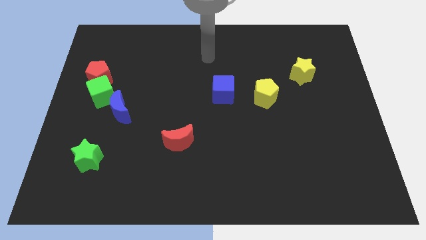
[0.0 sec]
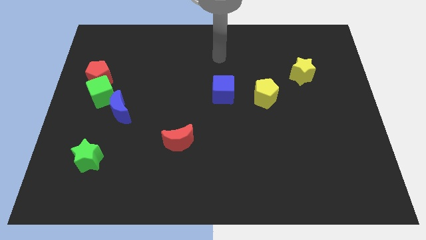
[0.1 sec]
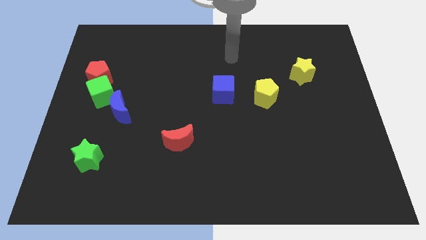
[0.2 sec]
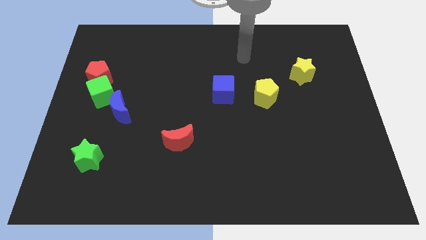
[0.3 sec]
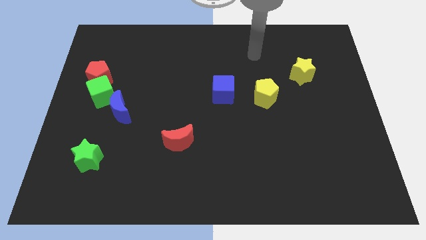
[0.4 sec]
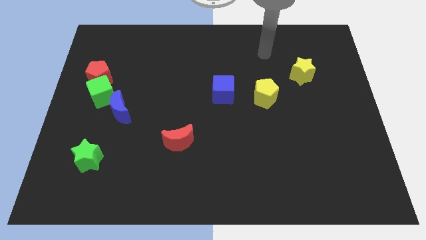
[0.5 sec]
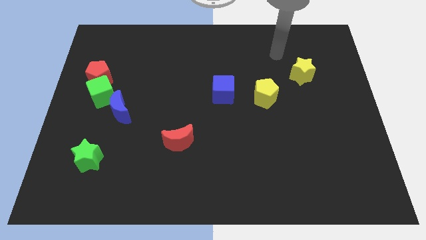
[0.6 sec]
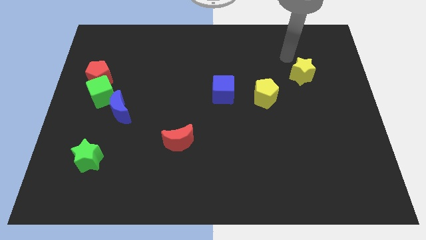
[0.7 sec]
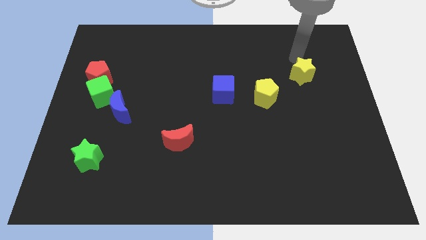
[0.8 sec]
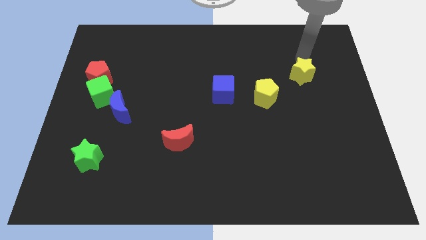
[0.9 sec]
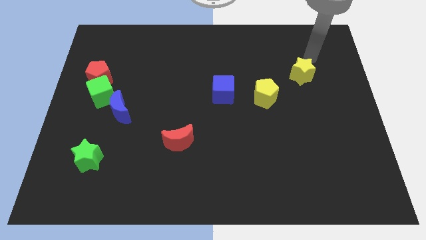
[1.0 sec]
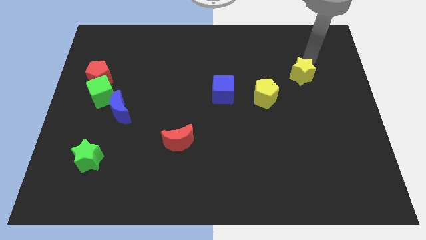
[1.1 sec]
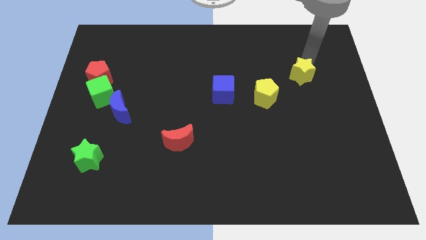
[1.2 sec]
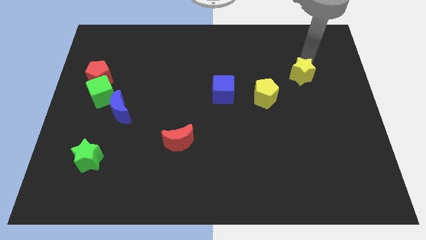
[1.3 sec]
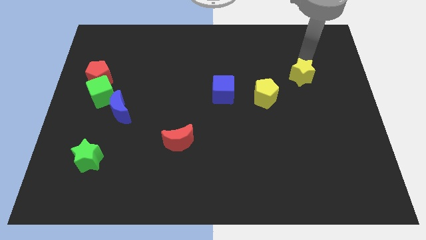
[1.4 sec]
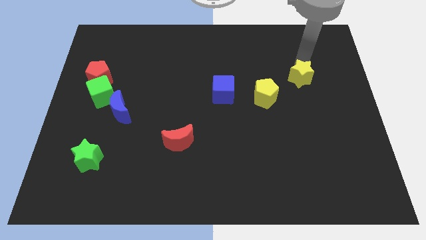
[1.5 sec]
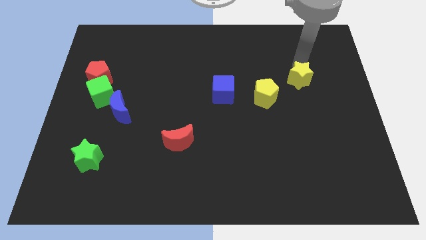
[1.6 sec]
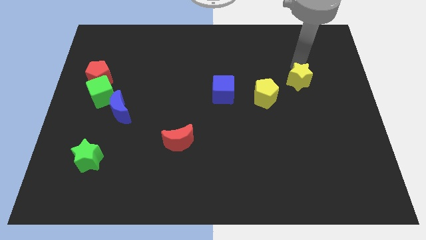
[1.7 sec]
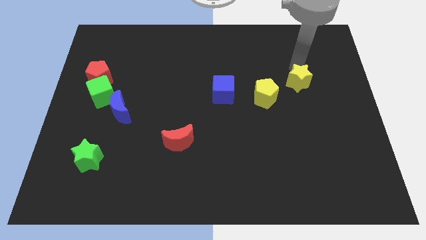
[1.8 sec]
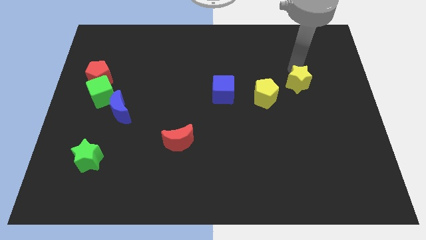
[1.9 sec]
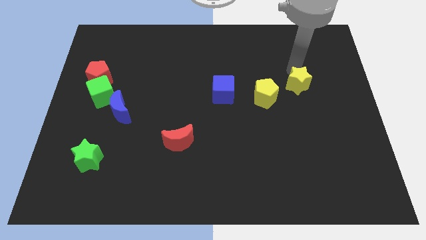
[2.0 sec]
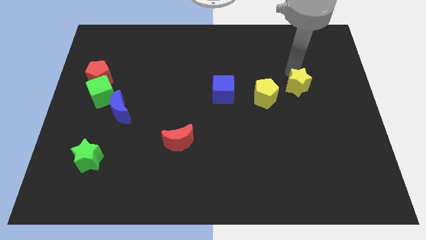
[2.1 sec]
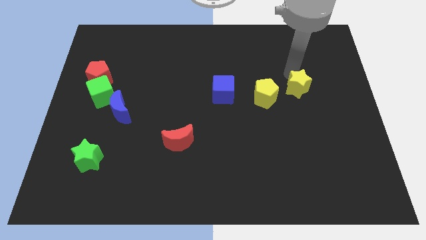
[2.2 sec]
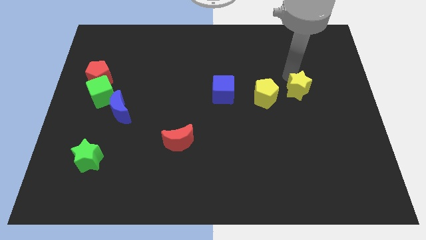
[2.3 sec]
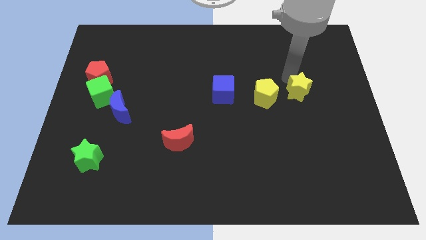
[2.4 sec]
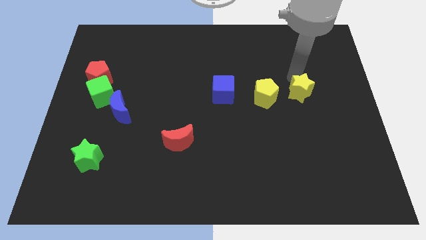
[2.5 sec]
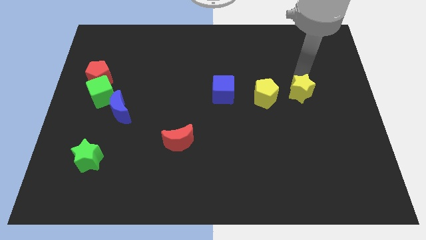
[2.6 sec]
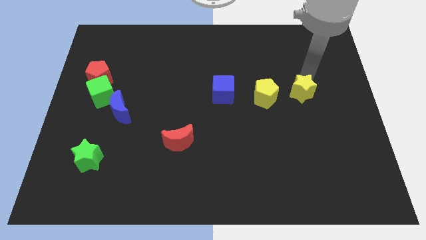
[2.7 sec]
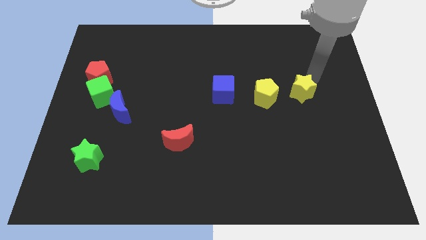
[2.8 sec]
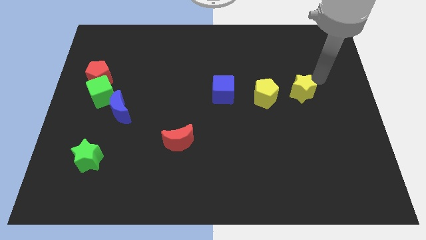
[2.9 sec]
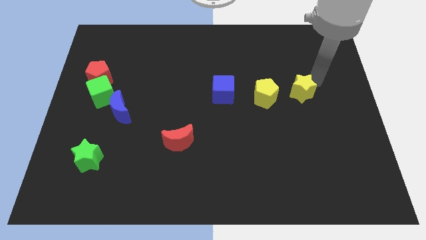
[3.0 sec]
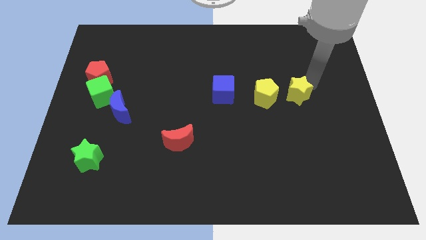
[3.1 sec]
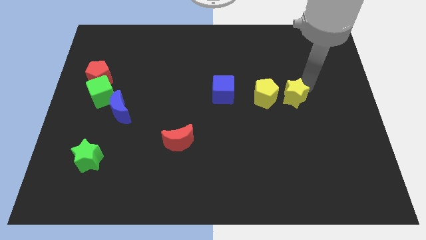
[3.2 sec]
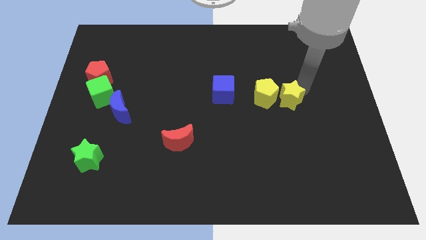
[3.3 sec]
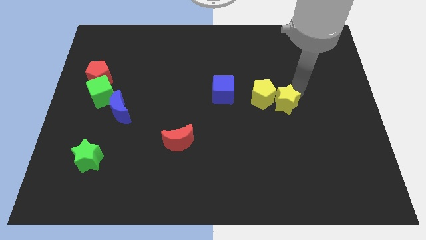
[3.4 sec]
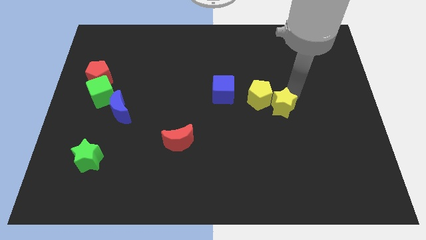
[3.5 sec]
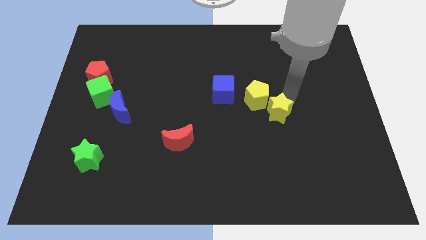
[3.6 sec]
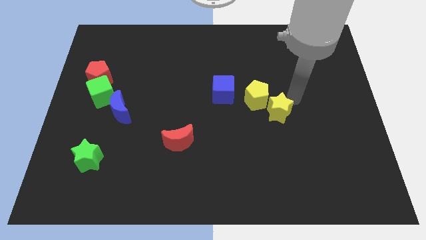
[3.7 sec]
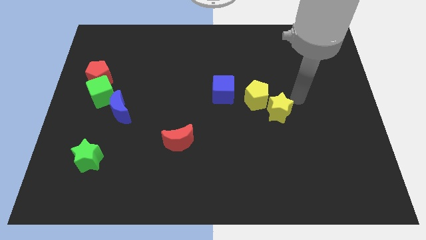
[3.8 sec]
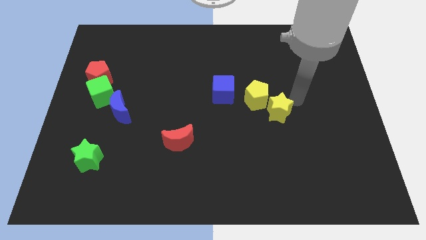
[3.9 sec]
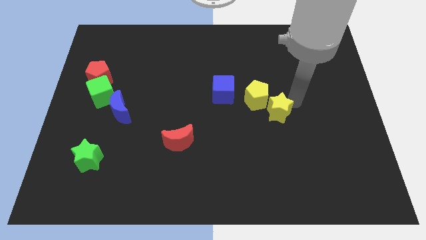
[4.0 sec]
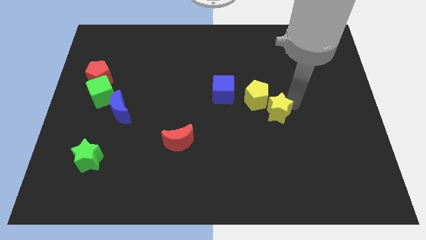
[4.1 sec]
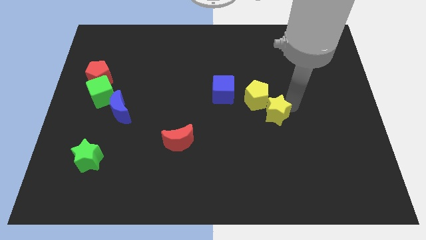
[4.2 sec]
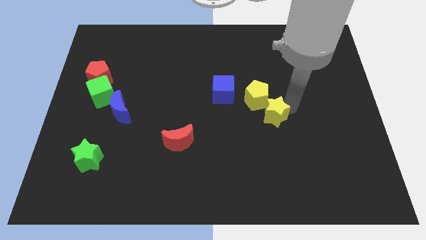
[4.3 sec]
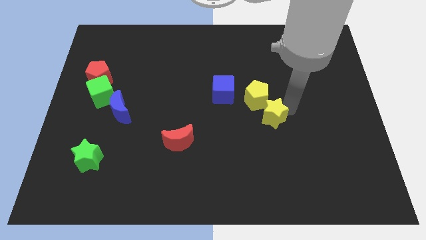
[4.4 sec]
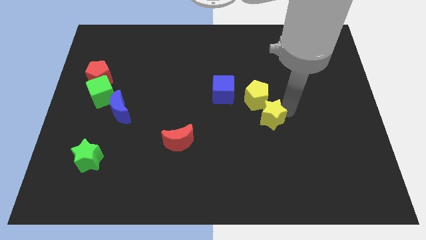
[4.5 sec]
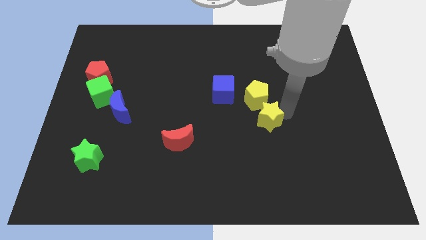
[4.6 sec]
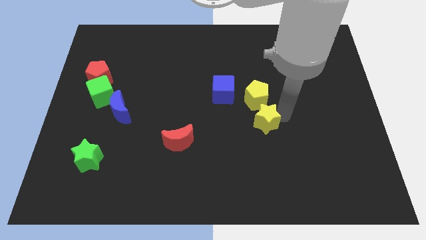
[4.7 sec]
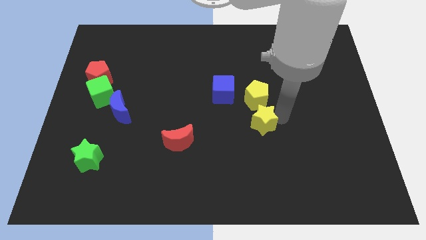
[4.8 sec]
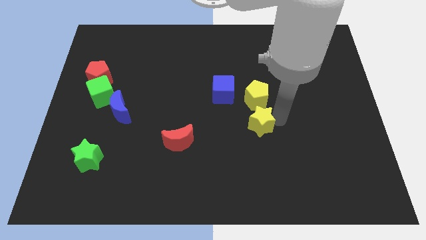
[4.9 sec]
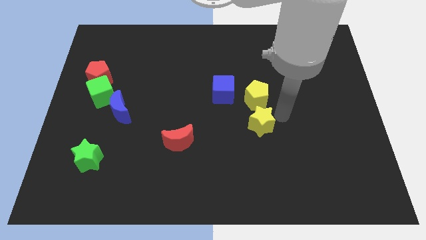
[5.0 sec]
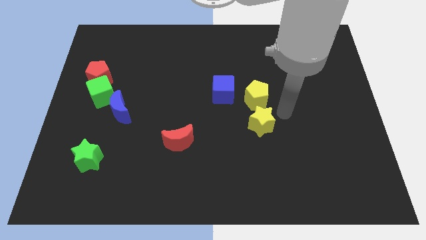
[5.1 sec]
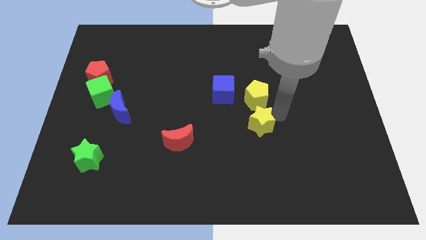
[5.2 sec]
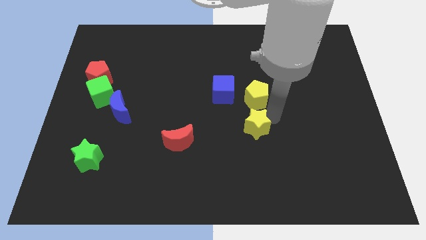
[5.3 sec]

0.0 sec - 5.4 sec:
move the yellow star downwards and to the left

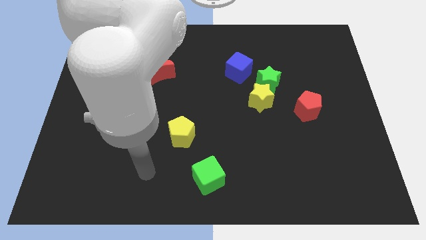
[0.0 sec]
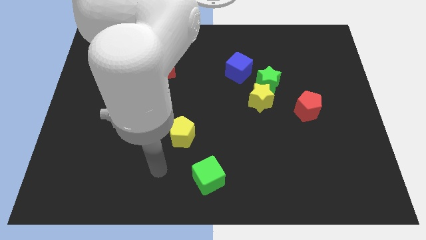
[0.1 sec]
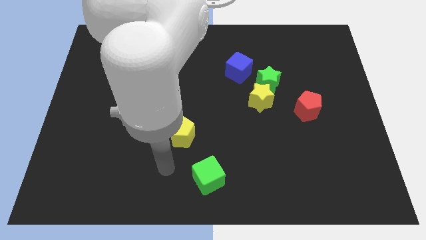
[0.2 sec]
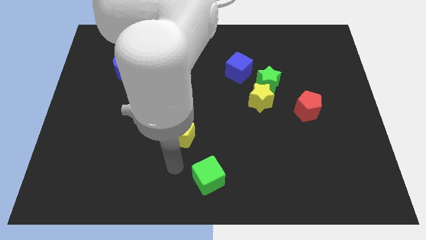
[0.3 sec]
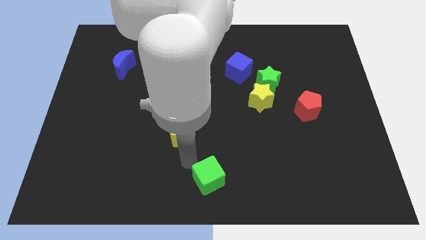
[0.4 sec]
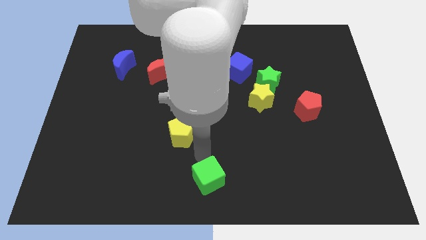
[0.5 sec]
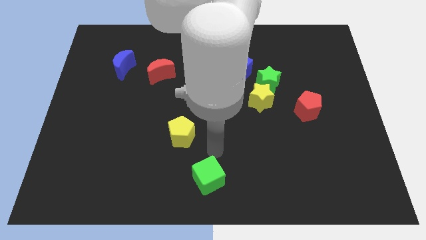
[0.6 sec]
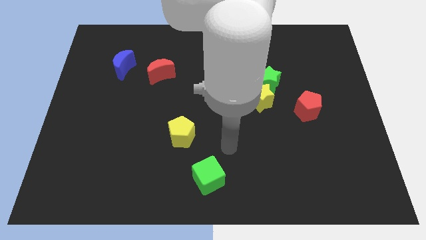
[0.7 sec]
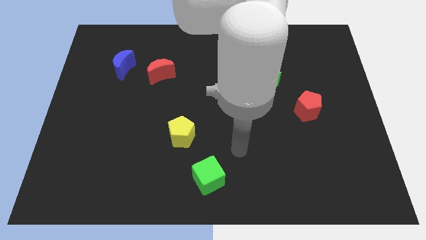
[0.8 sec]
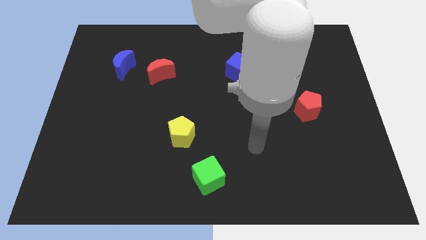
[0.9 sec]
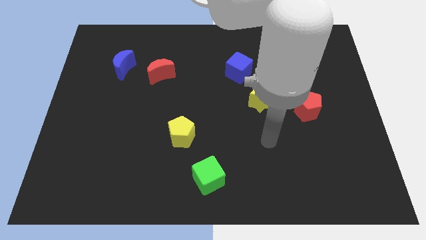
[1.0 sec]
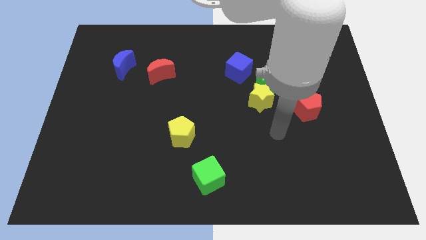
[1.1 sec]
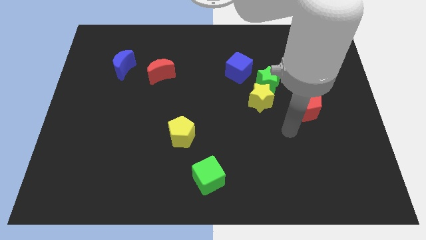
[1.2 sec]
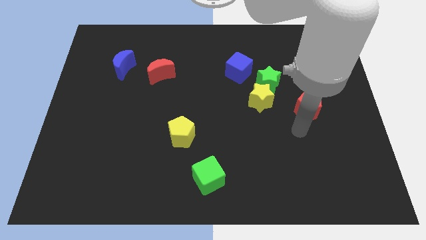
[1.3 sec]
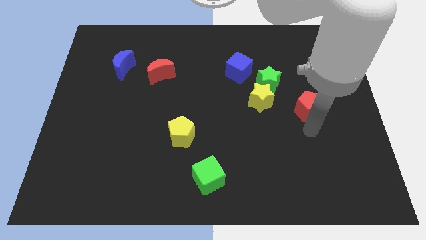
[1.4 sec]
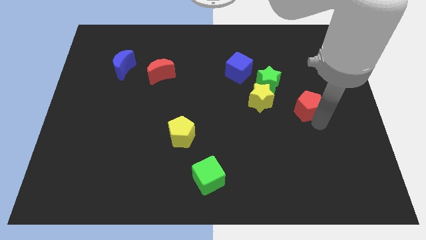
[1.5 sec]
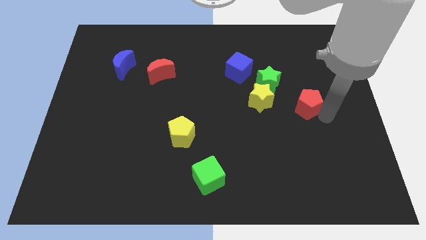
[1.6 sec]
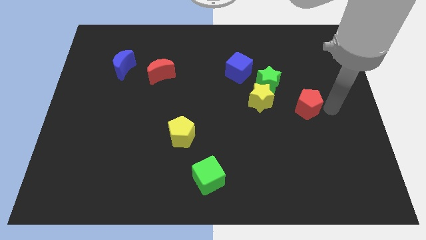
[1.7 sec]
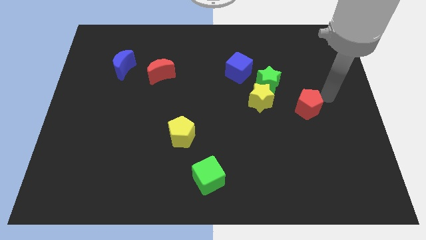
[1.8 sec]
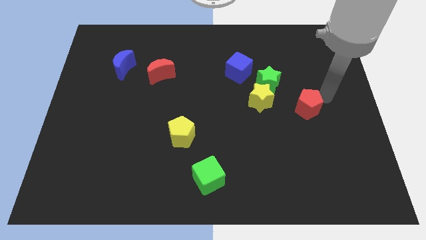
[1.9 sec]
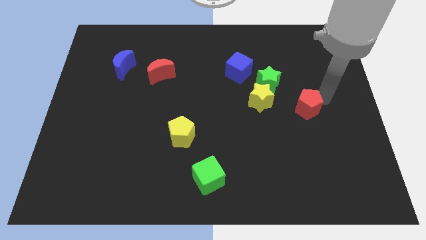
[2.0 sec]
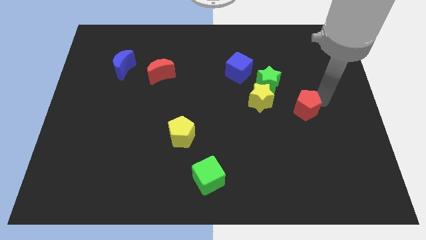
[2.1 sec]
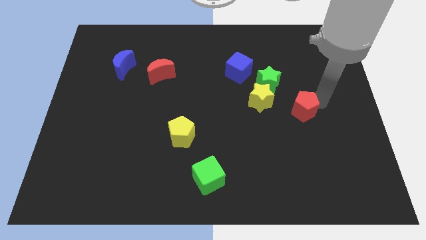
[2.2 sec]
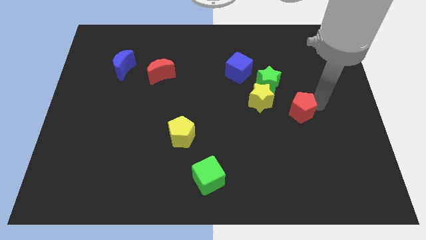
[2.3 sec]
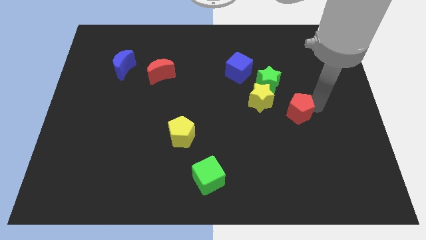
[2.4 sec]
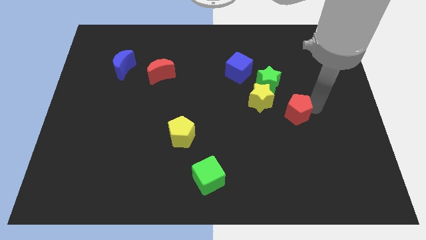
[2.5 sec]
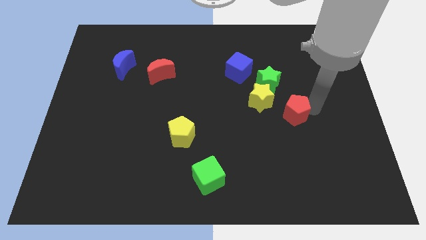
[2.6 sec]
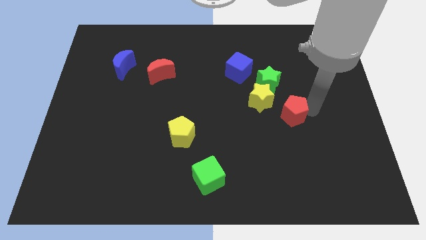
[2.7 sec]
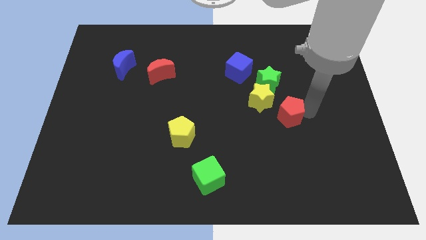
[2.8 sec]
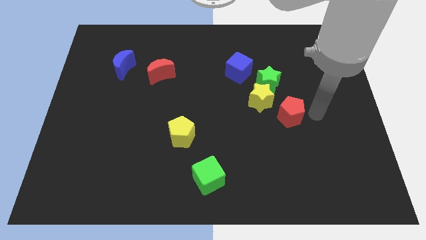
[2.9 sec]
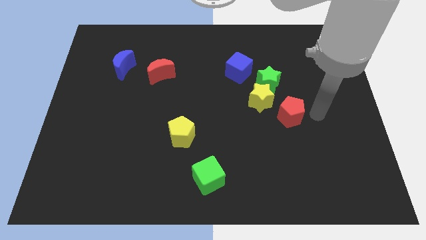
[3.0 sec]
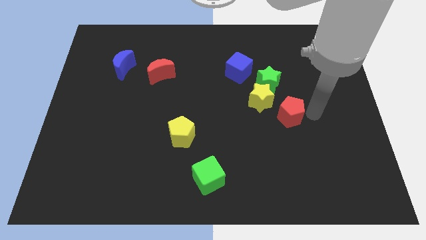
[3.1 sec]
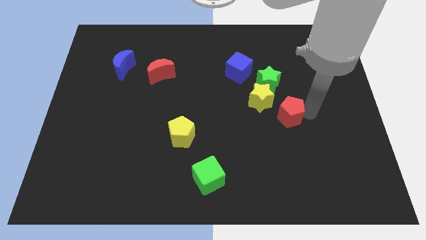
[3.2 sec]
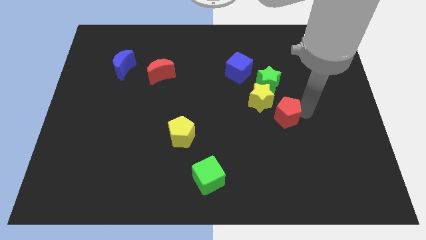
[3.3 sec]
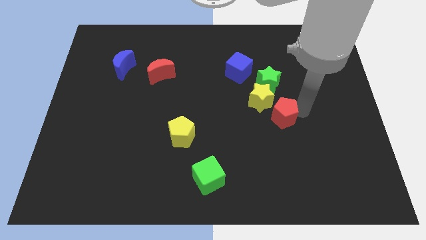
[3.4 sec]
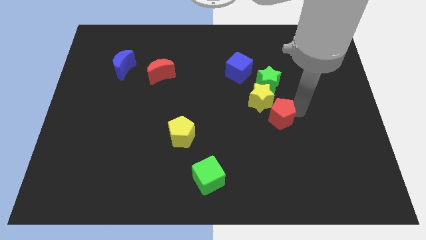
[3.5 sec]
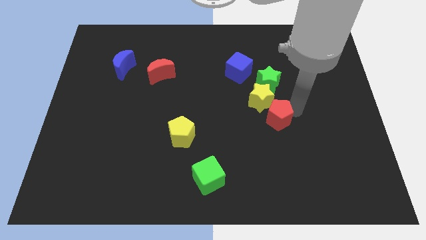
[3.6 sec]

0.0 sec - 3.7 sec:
push the red pentagon to the left somewhat
